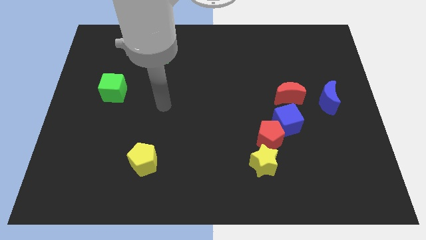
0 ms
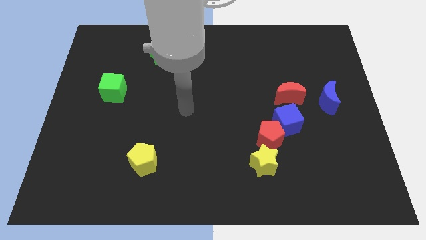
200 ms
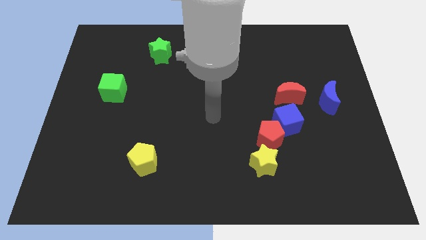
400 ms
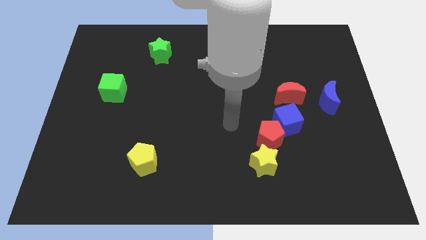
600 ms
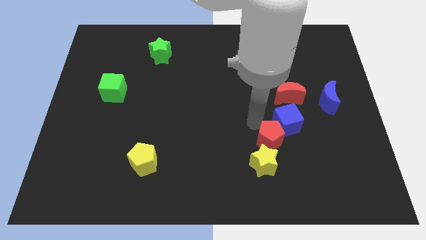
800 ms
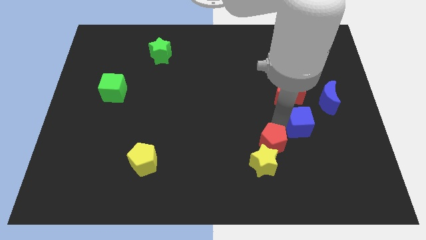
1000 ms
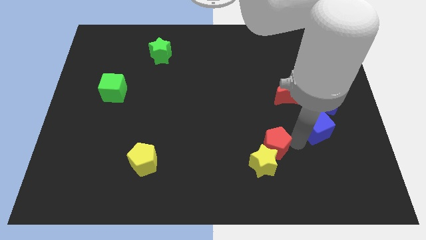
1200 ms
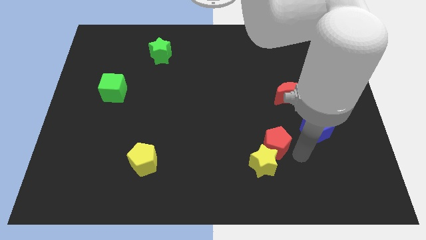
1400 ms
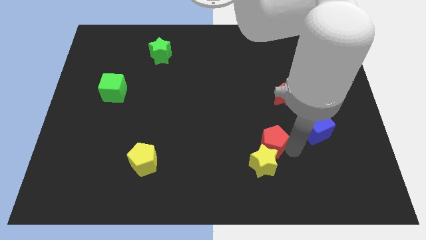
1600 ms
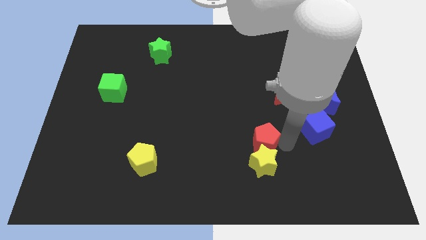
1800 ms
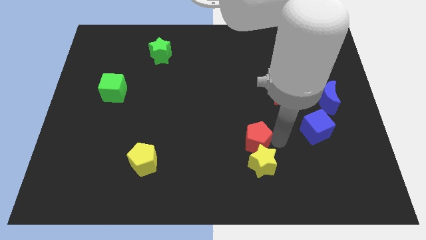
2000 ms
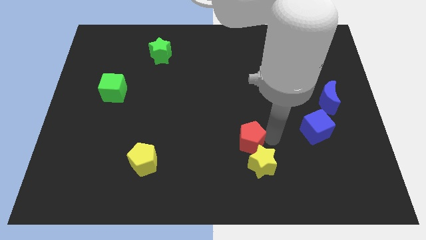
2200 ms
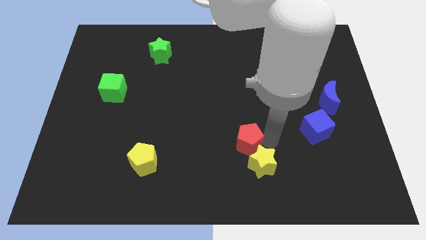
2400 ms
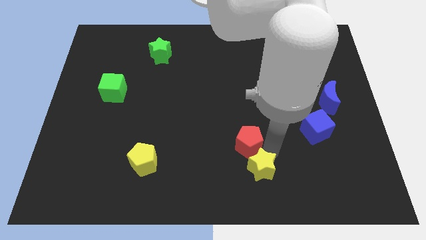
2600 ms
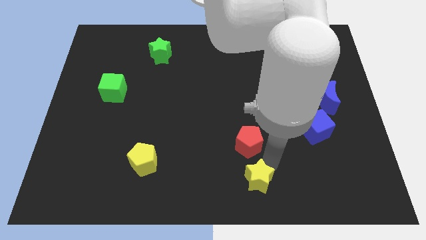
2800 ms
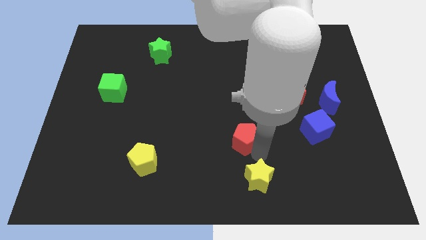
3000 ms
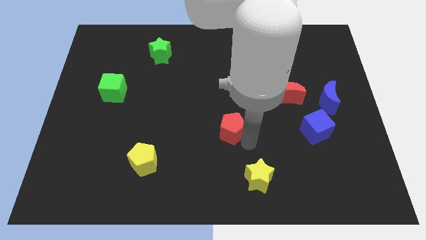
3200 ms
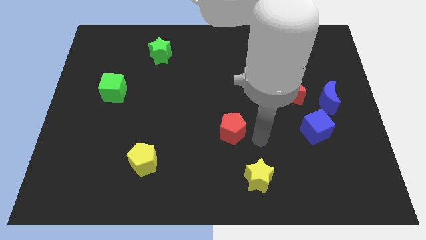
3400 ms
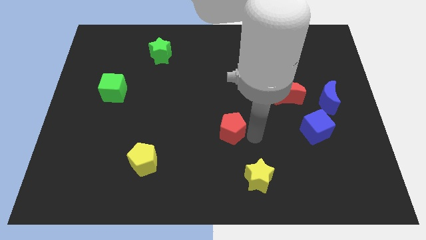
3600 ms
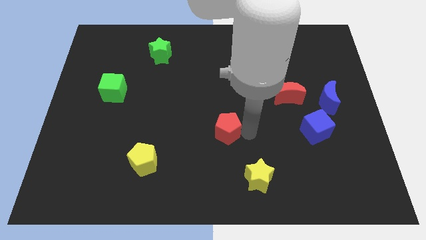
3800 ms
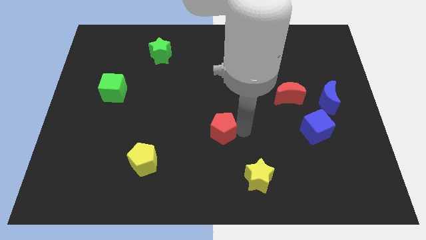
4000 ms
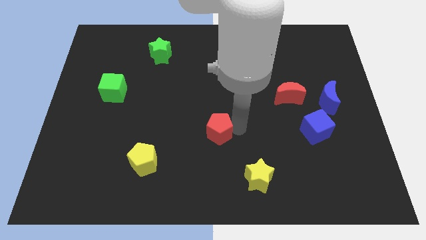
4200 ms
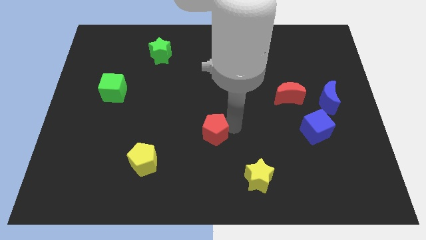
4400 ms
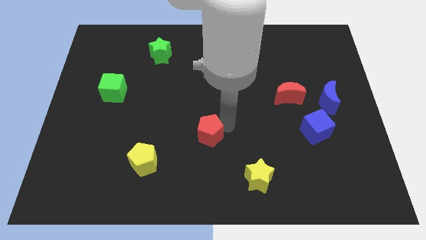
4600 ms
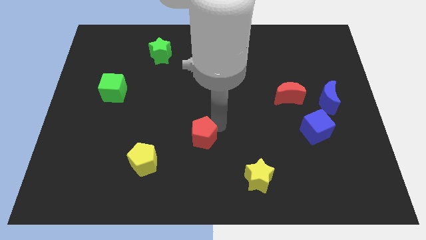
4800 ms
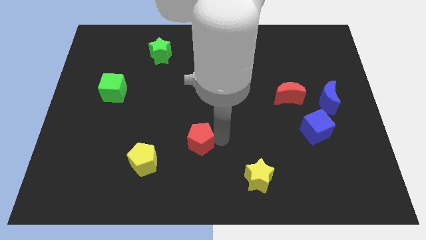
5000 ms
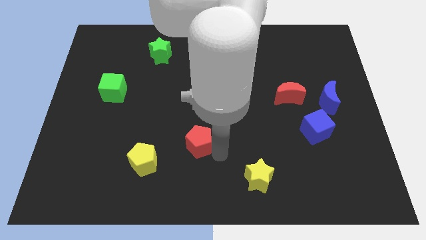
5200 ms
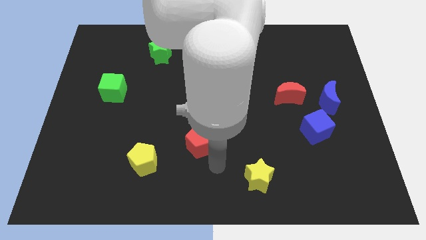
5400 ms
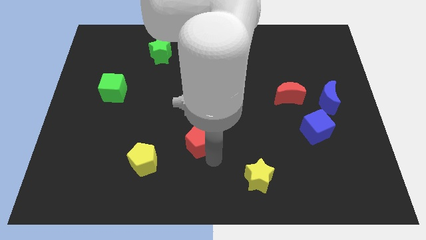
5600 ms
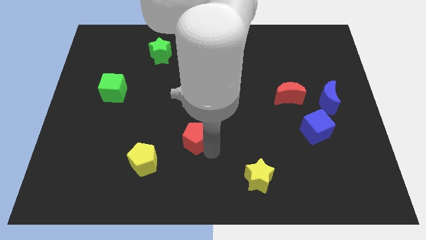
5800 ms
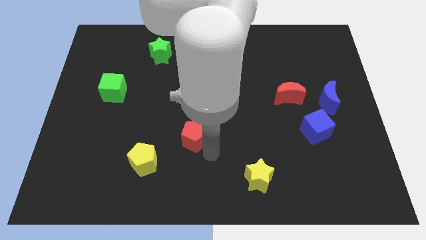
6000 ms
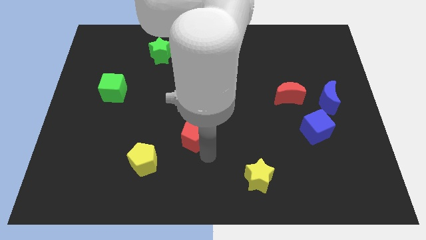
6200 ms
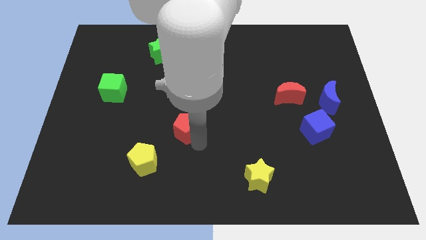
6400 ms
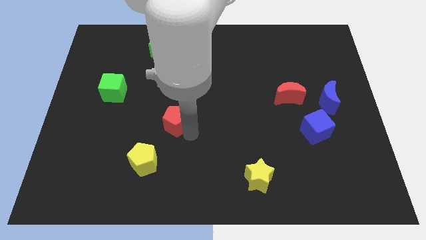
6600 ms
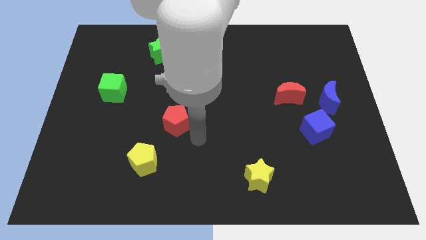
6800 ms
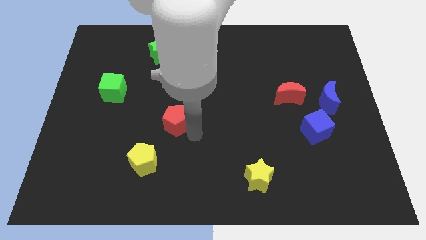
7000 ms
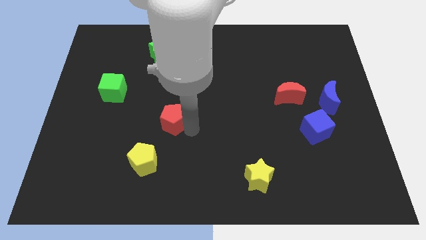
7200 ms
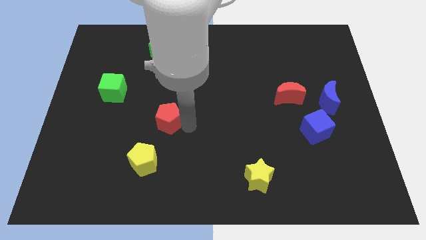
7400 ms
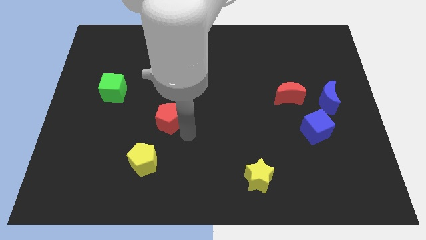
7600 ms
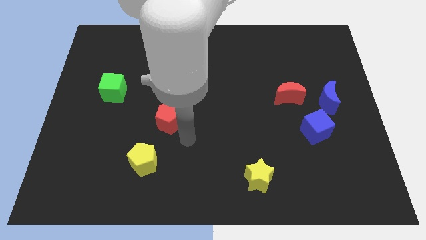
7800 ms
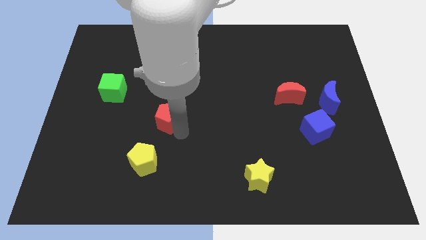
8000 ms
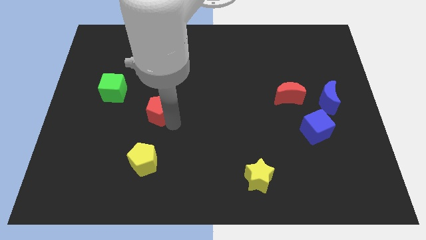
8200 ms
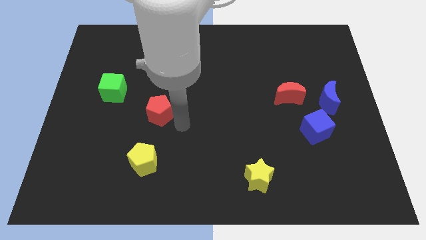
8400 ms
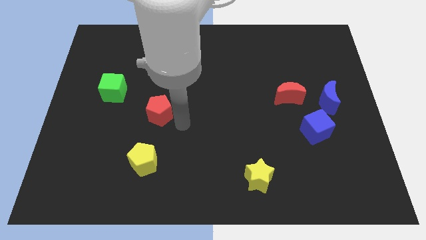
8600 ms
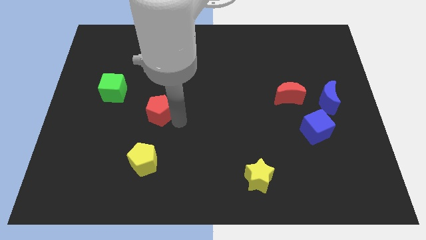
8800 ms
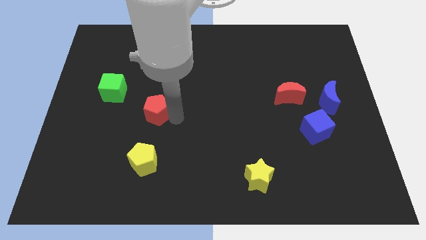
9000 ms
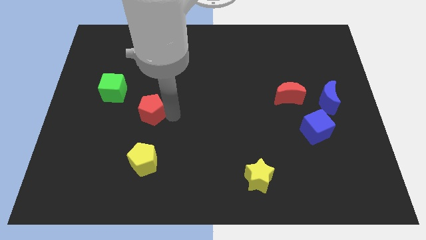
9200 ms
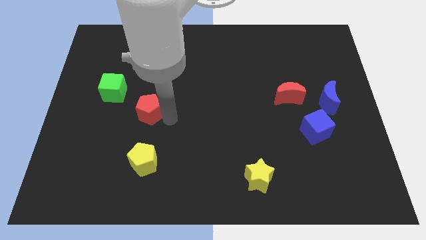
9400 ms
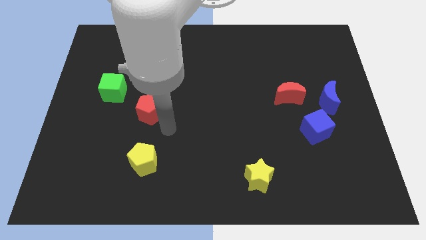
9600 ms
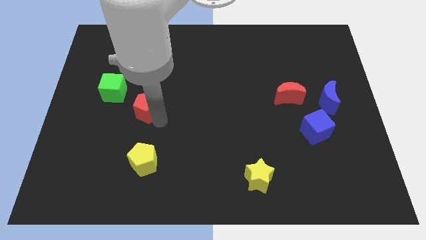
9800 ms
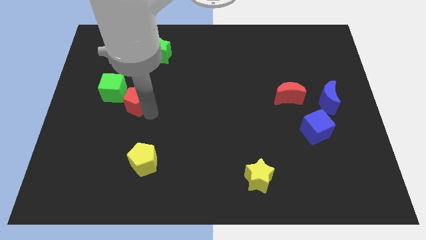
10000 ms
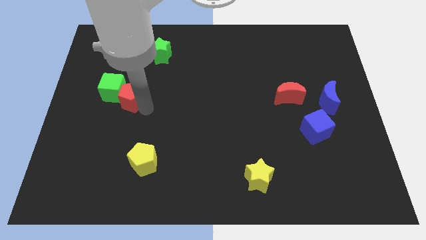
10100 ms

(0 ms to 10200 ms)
push the red pentagon close to the green cube
